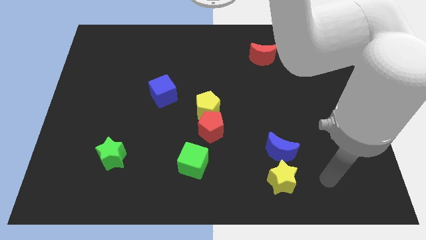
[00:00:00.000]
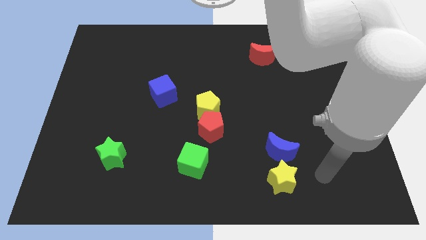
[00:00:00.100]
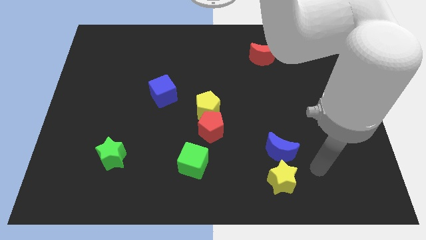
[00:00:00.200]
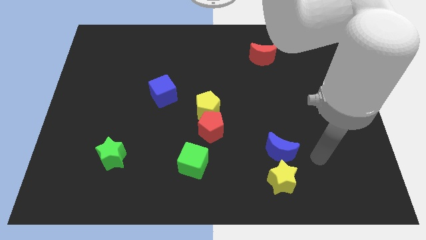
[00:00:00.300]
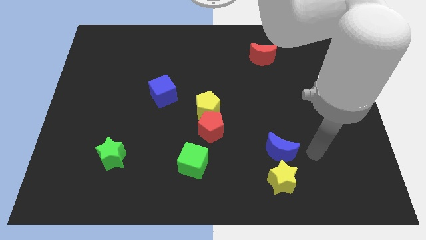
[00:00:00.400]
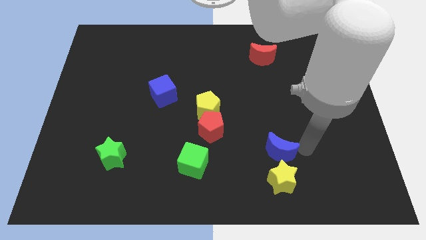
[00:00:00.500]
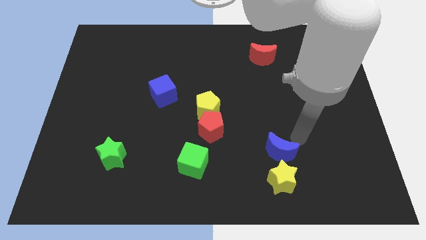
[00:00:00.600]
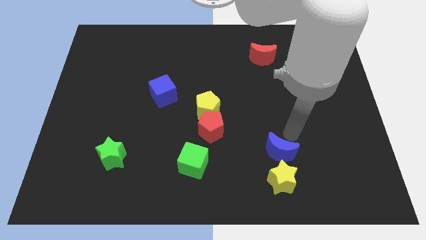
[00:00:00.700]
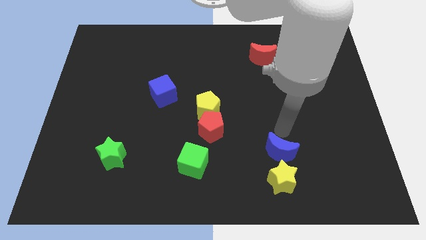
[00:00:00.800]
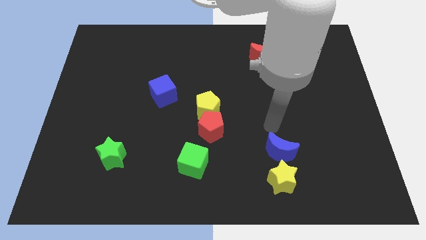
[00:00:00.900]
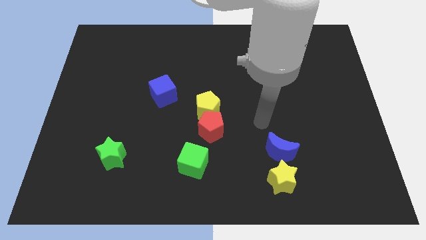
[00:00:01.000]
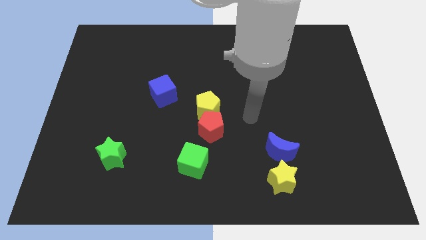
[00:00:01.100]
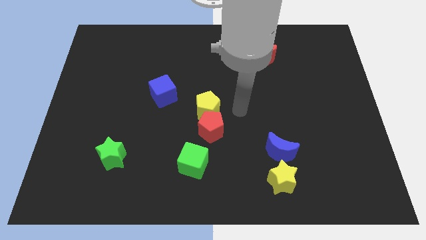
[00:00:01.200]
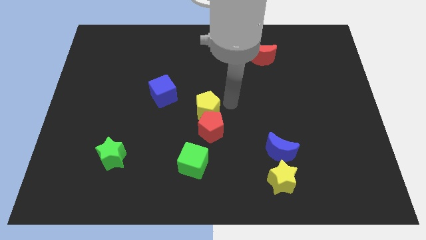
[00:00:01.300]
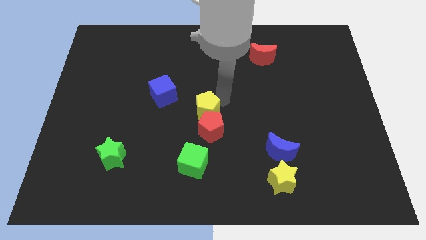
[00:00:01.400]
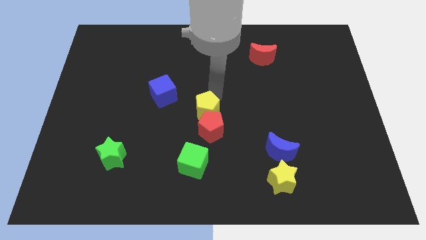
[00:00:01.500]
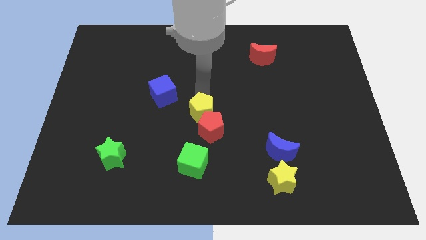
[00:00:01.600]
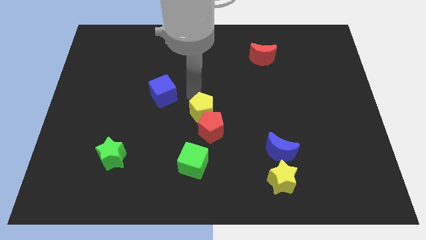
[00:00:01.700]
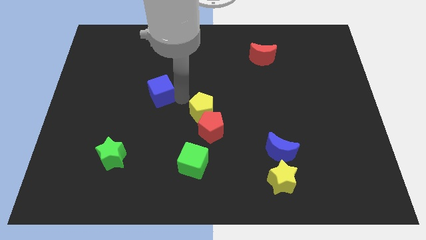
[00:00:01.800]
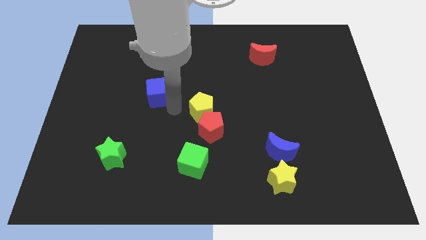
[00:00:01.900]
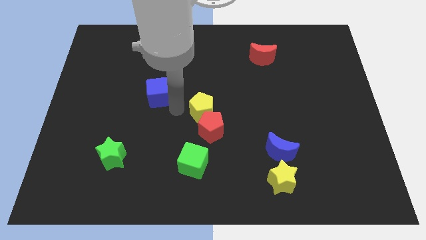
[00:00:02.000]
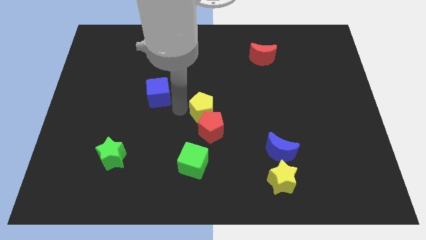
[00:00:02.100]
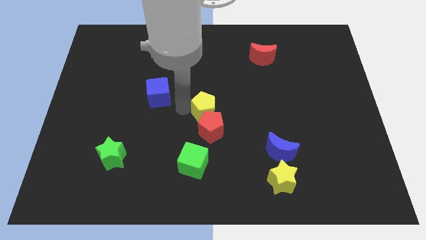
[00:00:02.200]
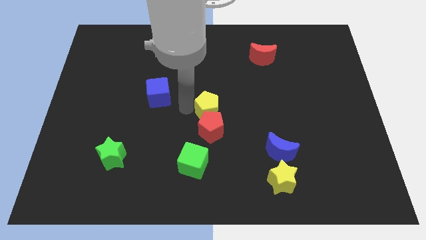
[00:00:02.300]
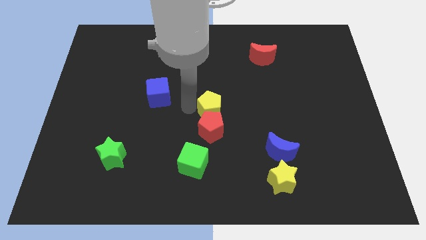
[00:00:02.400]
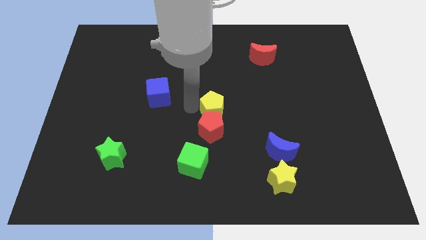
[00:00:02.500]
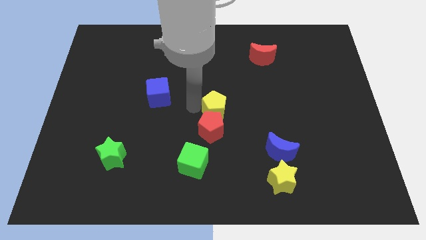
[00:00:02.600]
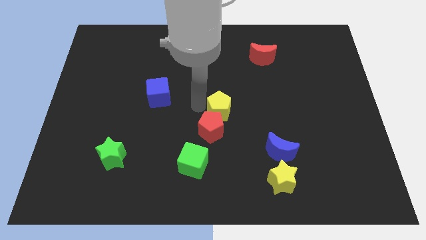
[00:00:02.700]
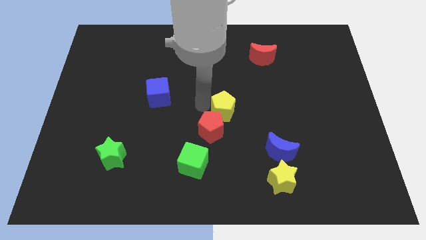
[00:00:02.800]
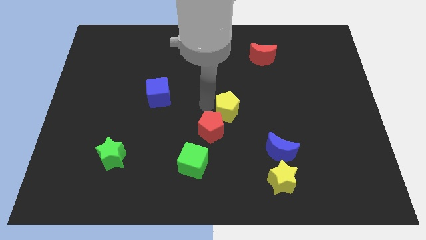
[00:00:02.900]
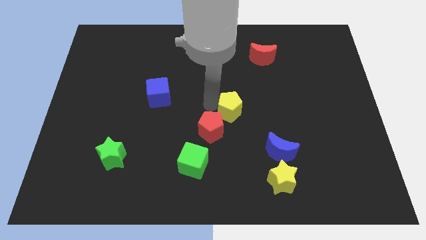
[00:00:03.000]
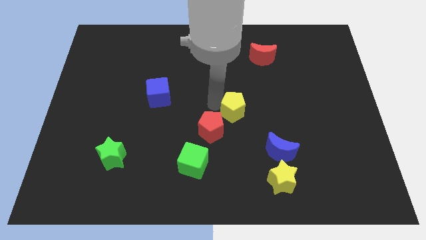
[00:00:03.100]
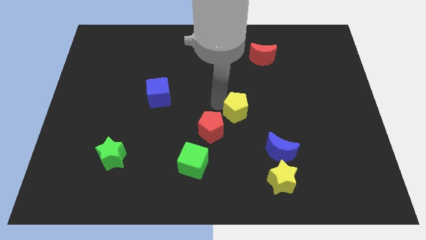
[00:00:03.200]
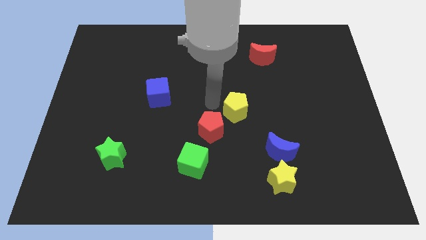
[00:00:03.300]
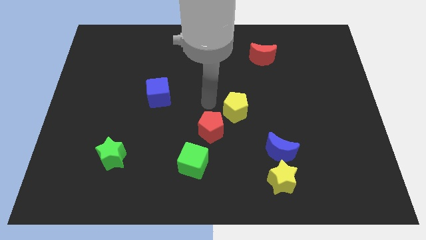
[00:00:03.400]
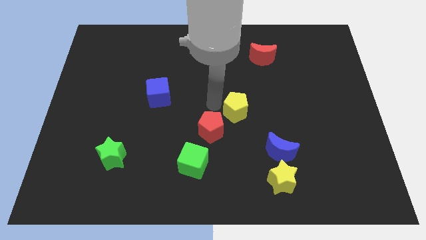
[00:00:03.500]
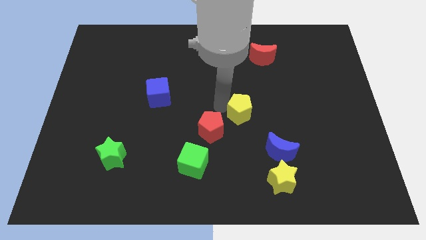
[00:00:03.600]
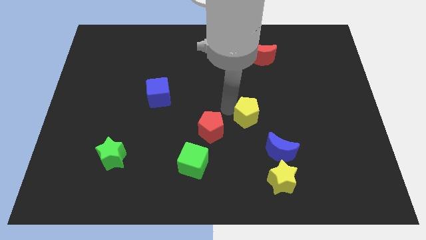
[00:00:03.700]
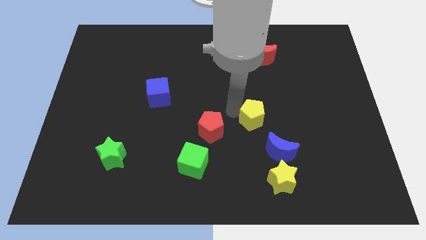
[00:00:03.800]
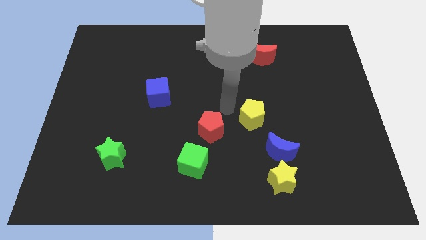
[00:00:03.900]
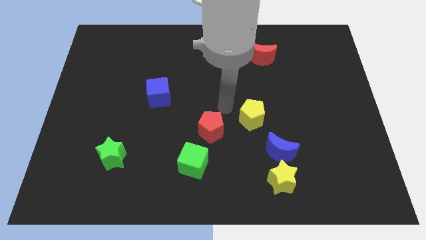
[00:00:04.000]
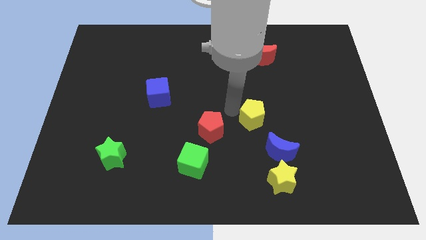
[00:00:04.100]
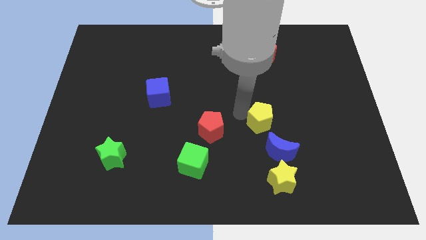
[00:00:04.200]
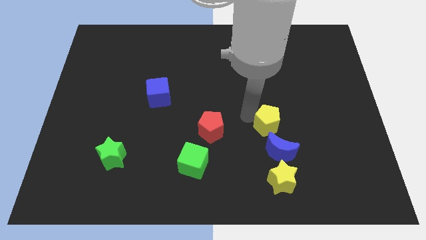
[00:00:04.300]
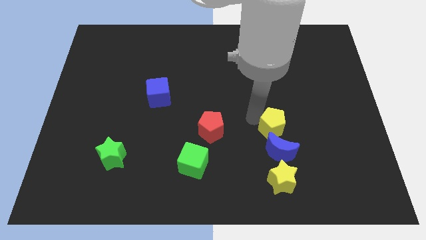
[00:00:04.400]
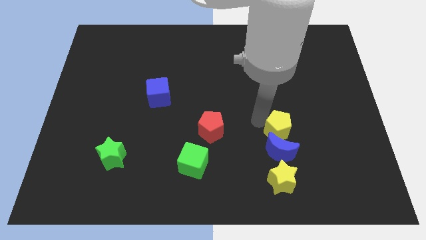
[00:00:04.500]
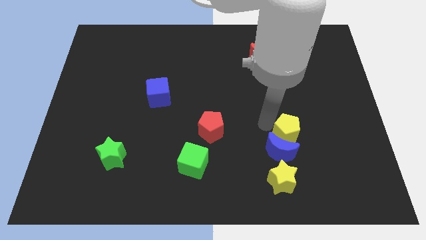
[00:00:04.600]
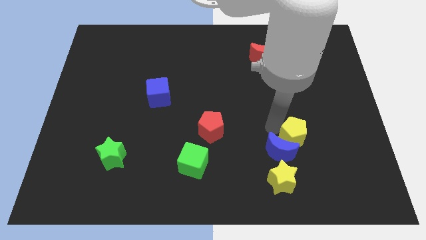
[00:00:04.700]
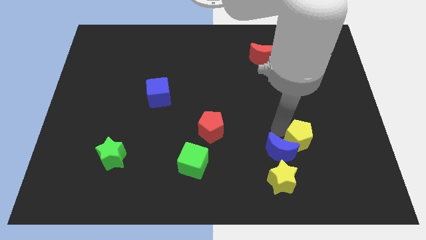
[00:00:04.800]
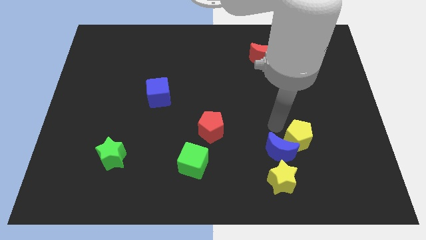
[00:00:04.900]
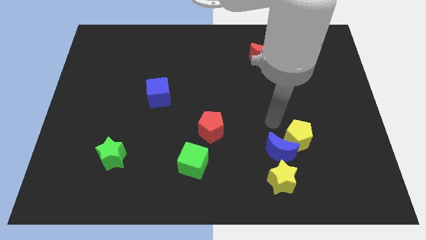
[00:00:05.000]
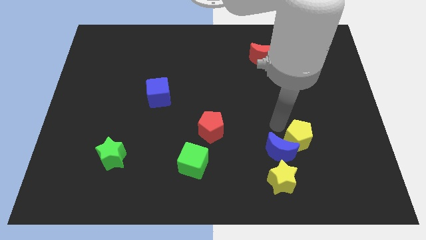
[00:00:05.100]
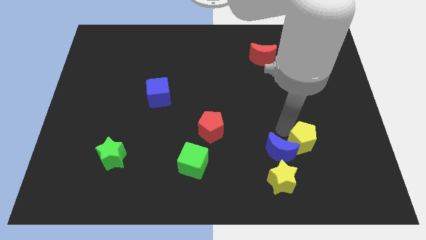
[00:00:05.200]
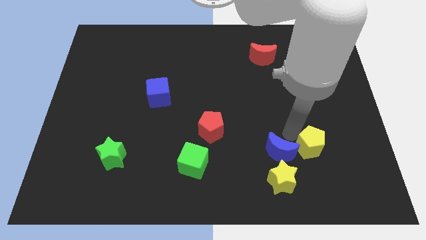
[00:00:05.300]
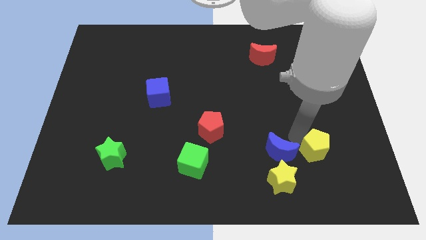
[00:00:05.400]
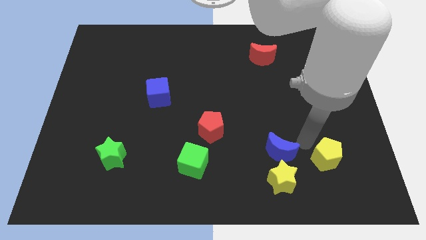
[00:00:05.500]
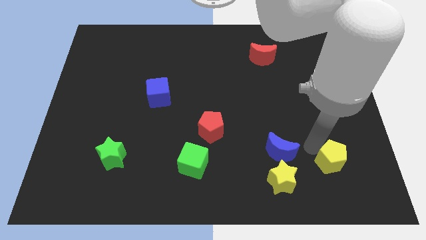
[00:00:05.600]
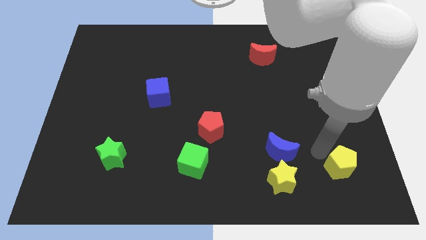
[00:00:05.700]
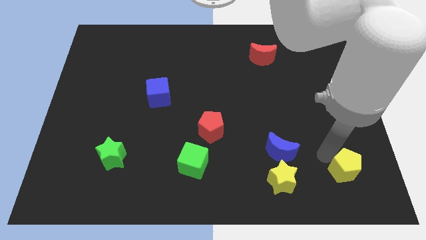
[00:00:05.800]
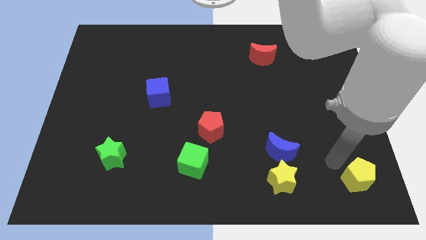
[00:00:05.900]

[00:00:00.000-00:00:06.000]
push the yellow pentagon to the bottom right

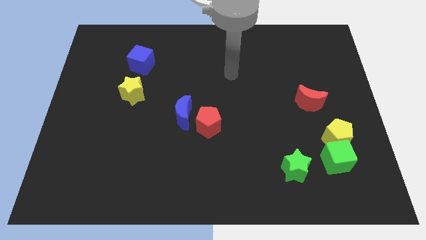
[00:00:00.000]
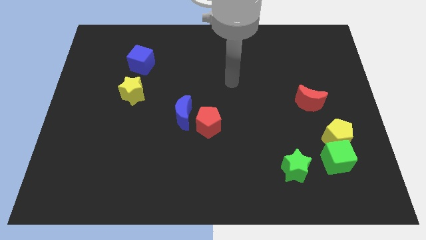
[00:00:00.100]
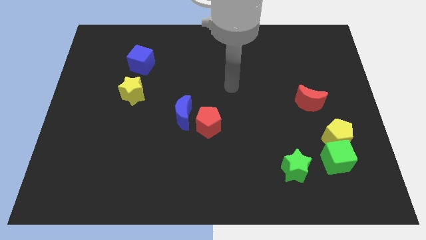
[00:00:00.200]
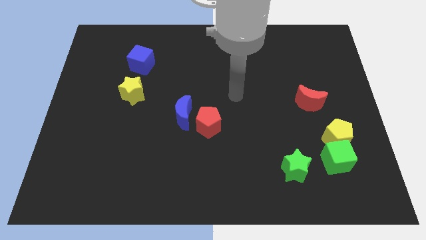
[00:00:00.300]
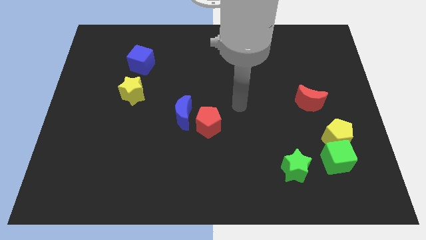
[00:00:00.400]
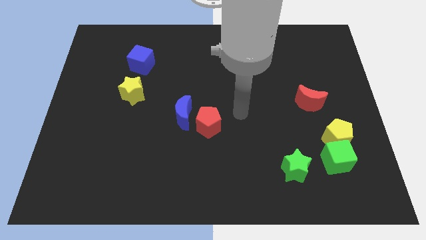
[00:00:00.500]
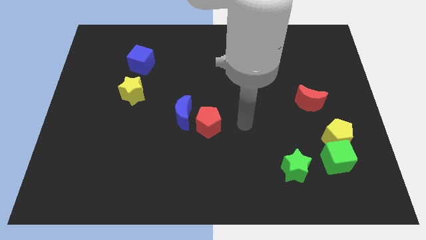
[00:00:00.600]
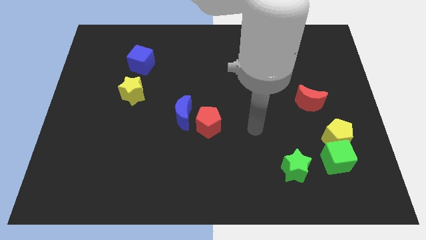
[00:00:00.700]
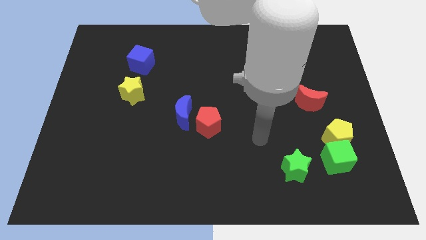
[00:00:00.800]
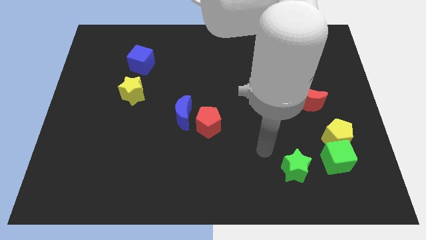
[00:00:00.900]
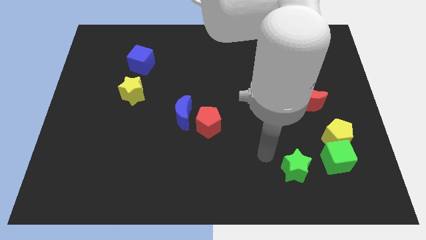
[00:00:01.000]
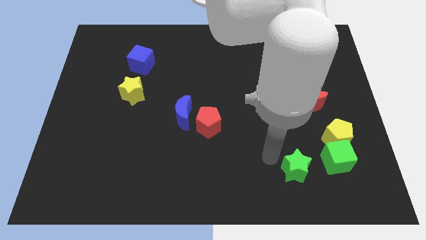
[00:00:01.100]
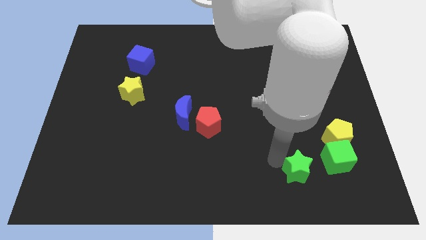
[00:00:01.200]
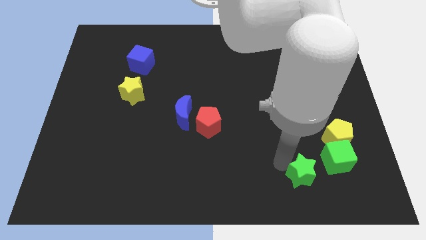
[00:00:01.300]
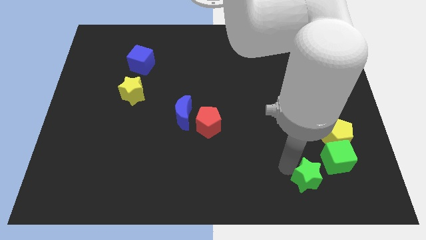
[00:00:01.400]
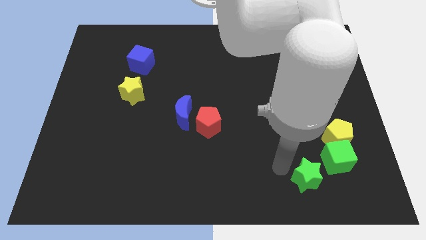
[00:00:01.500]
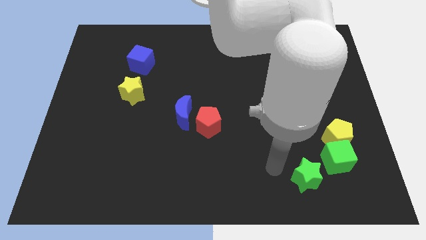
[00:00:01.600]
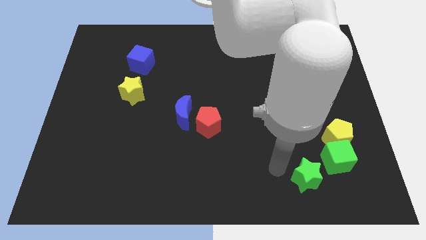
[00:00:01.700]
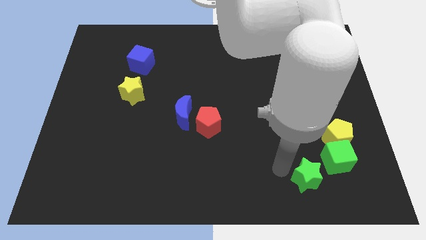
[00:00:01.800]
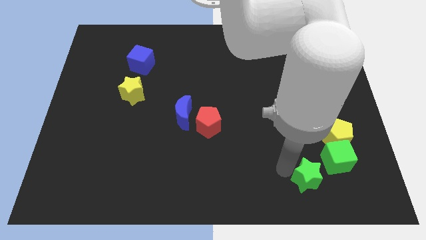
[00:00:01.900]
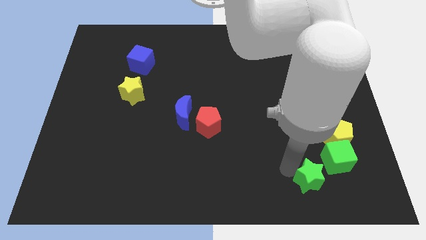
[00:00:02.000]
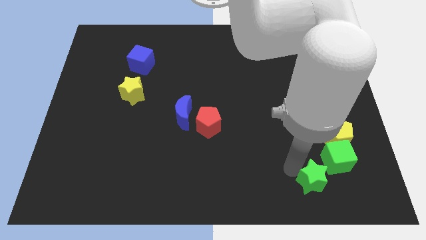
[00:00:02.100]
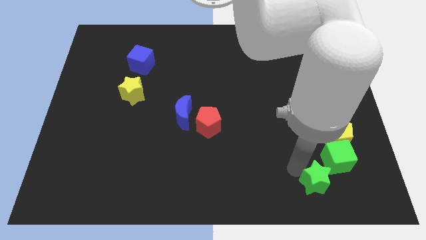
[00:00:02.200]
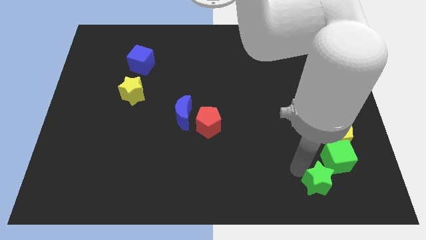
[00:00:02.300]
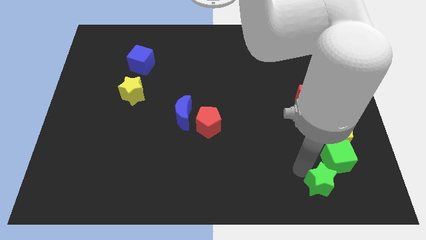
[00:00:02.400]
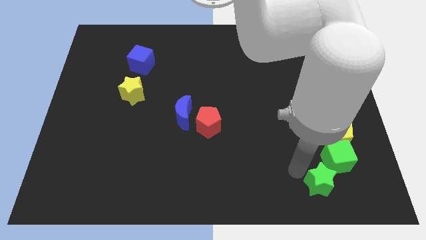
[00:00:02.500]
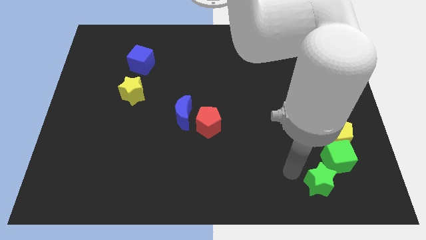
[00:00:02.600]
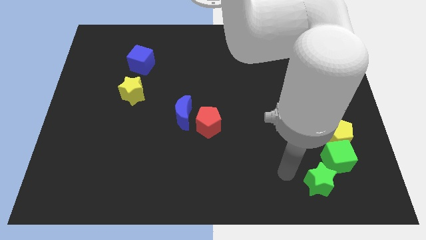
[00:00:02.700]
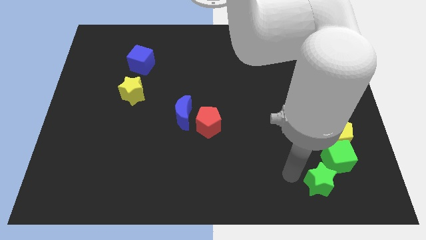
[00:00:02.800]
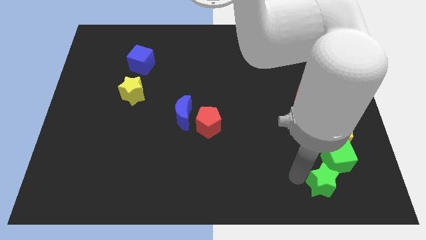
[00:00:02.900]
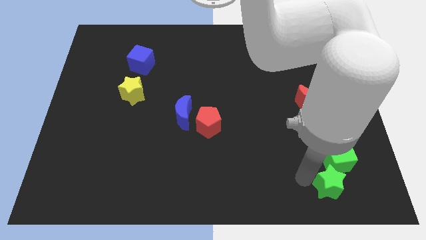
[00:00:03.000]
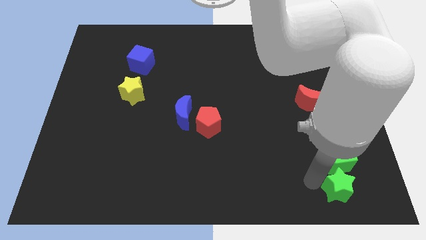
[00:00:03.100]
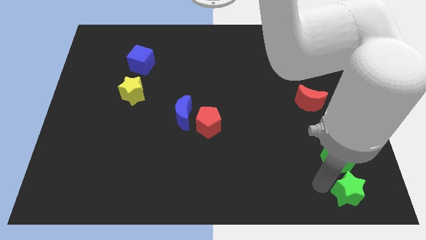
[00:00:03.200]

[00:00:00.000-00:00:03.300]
move the green star to the bottom right
